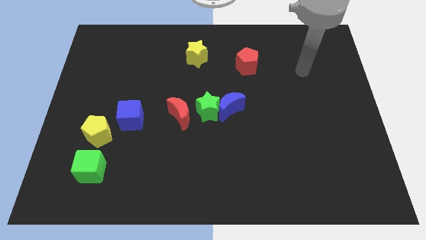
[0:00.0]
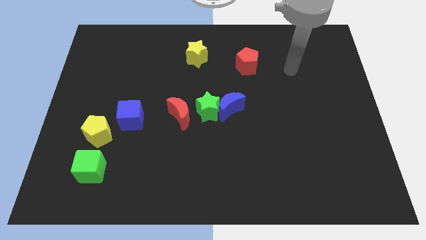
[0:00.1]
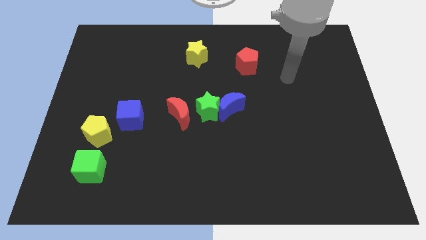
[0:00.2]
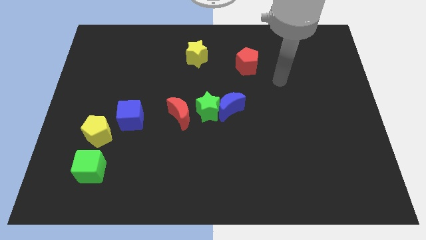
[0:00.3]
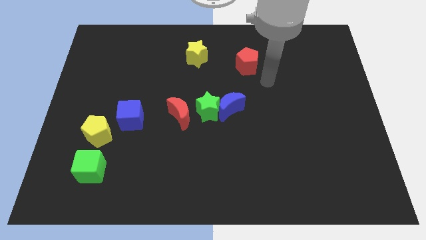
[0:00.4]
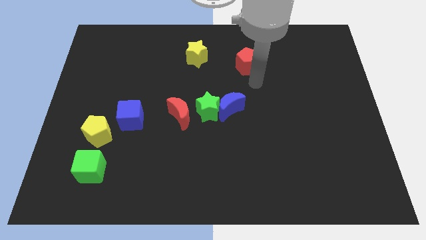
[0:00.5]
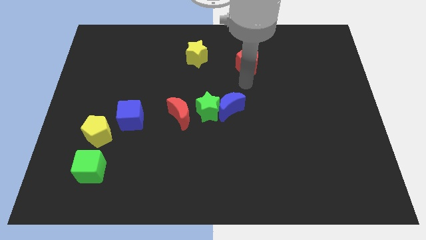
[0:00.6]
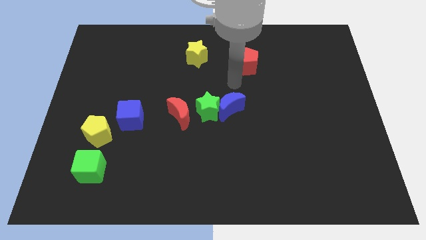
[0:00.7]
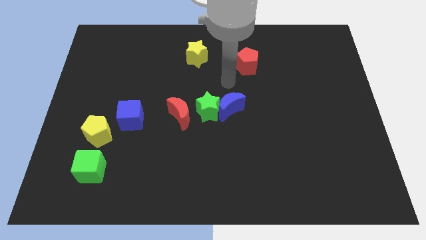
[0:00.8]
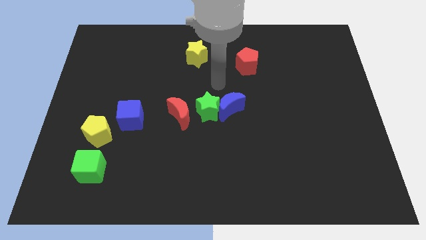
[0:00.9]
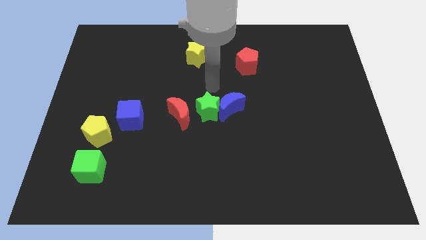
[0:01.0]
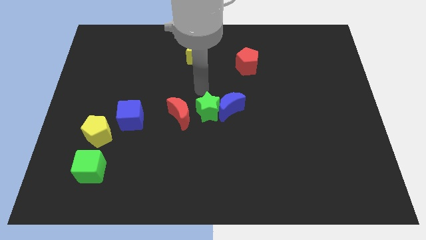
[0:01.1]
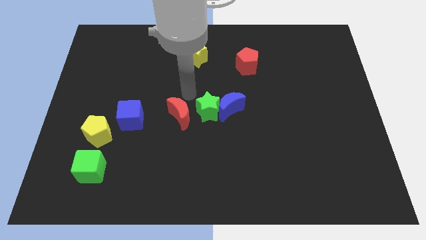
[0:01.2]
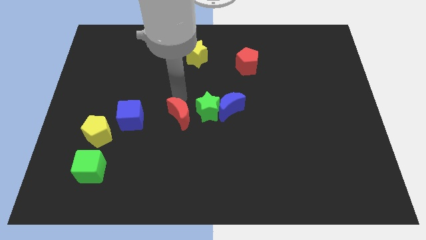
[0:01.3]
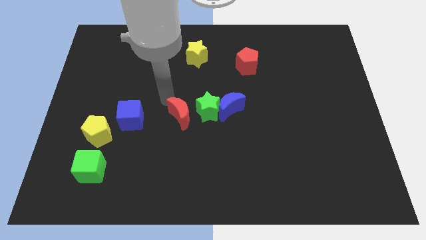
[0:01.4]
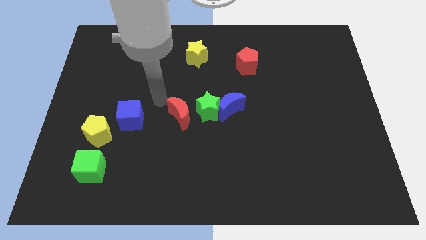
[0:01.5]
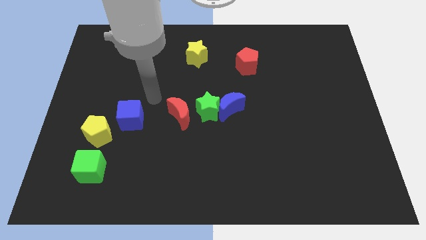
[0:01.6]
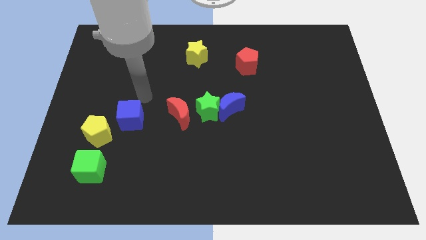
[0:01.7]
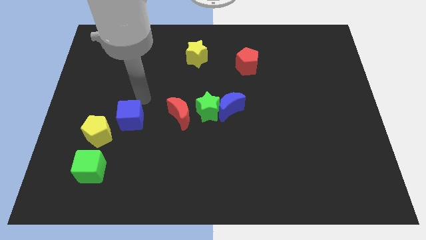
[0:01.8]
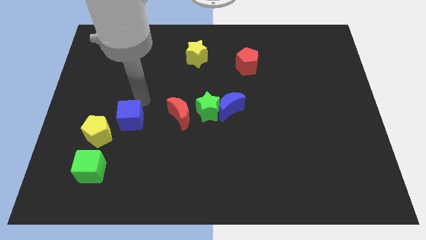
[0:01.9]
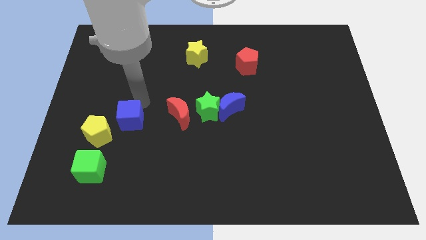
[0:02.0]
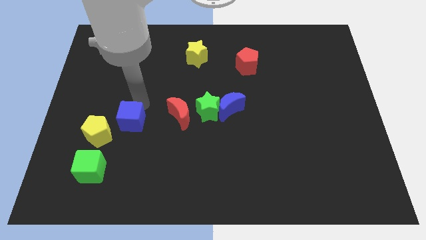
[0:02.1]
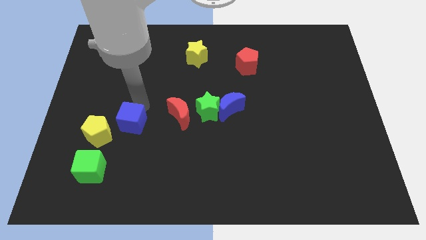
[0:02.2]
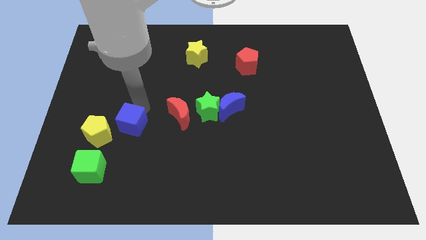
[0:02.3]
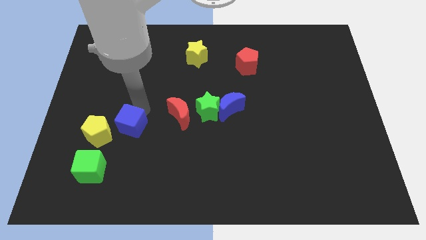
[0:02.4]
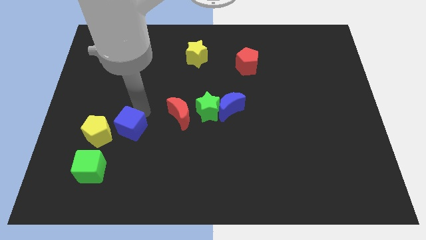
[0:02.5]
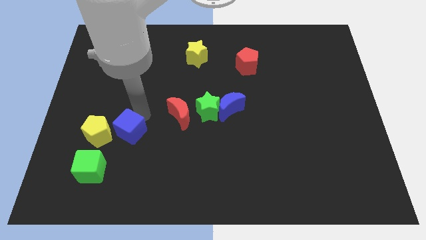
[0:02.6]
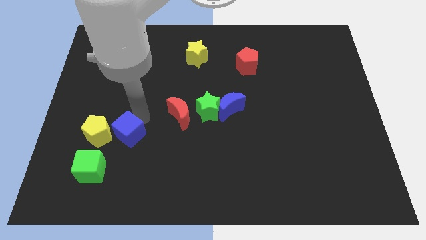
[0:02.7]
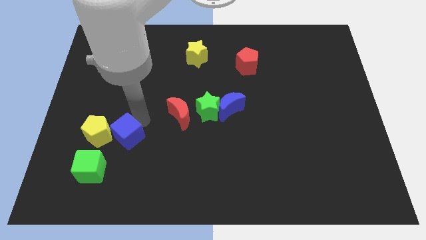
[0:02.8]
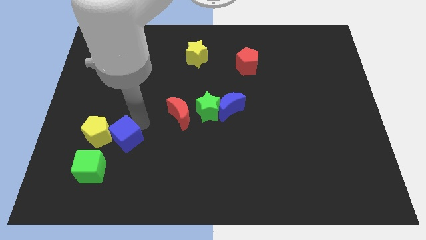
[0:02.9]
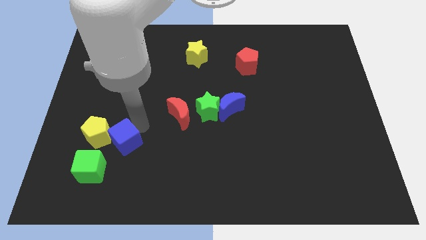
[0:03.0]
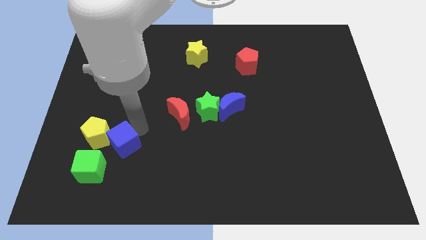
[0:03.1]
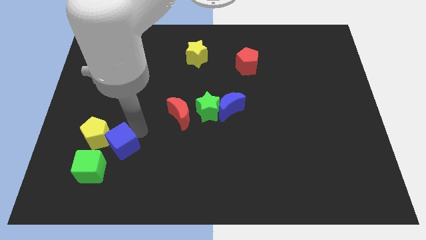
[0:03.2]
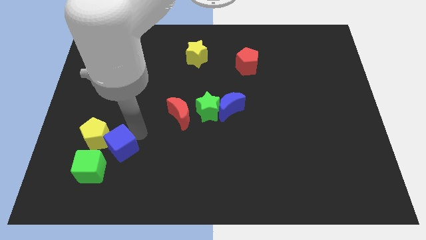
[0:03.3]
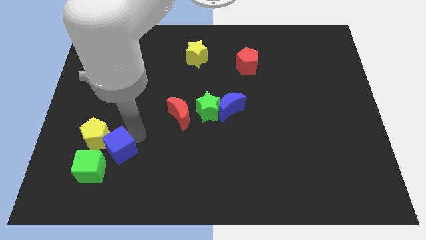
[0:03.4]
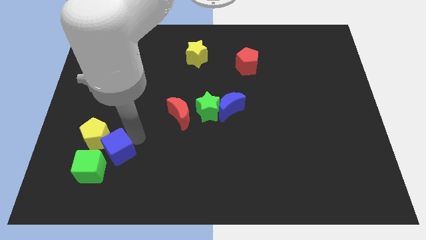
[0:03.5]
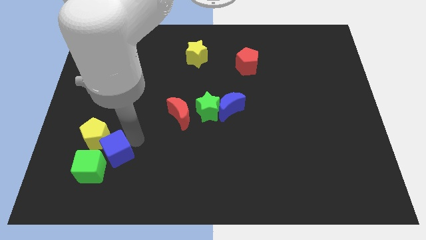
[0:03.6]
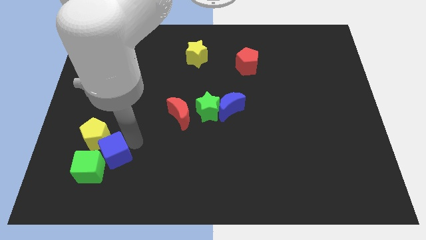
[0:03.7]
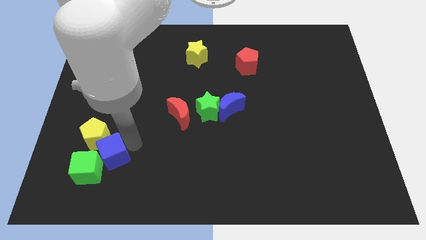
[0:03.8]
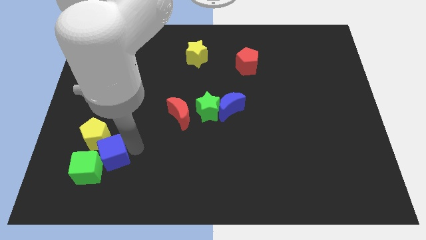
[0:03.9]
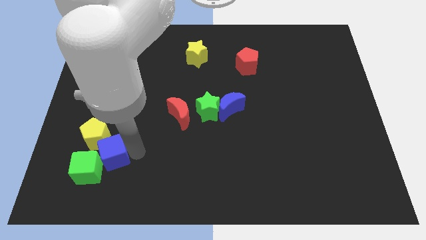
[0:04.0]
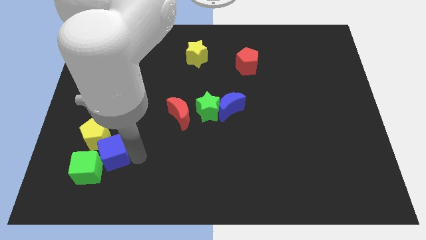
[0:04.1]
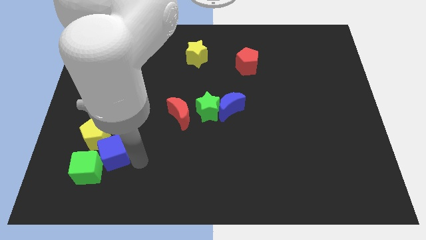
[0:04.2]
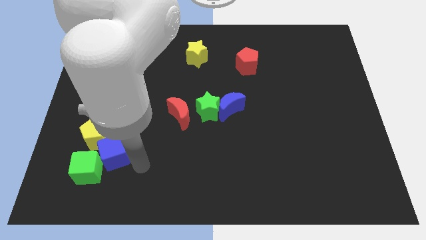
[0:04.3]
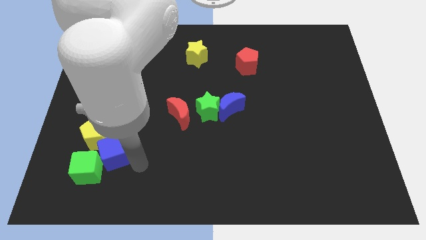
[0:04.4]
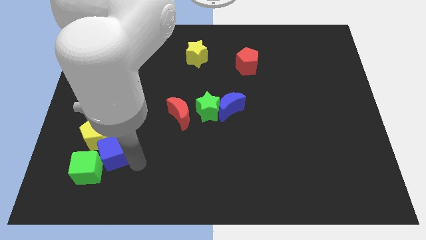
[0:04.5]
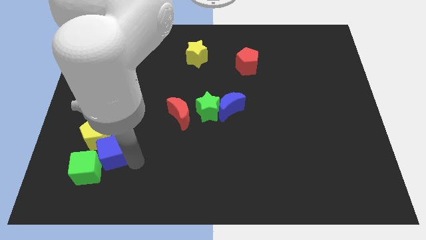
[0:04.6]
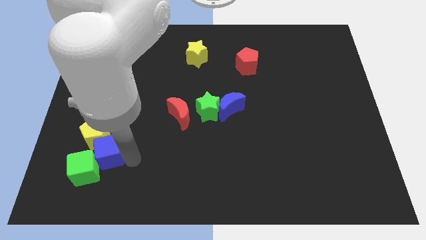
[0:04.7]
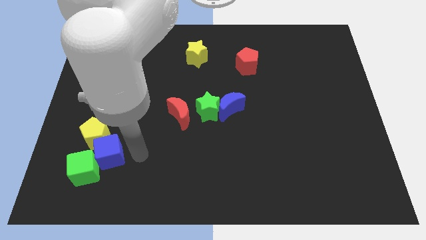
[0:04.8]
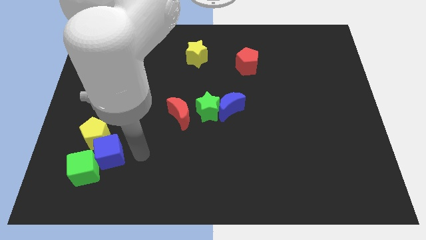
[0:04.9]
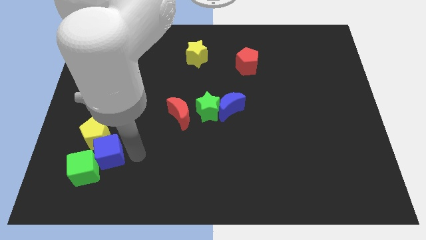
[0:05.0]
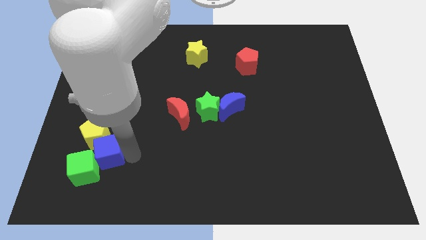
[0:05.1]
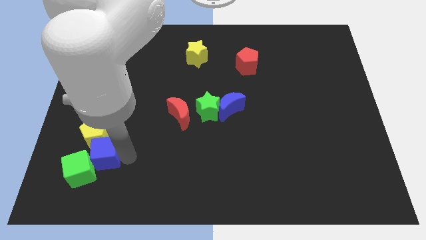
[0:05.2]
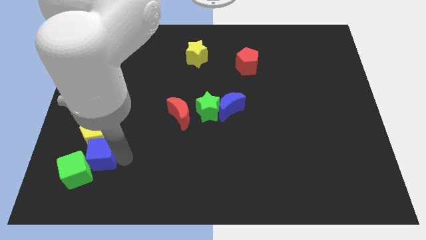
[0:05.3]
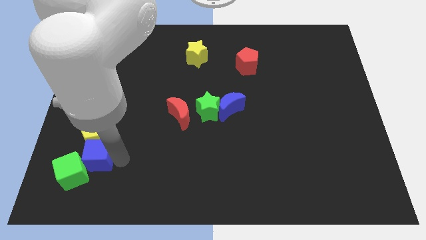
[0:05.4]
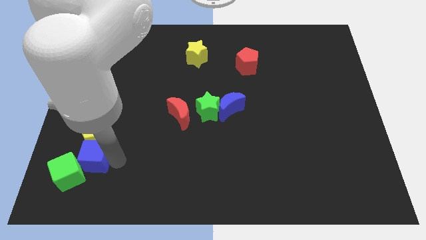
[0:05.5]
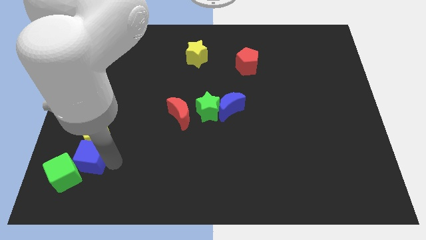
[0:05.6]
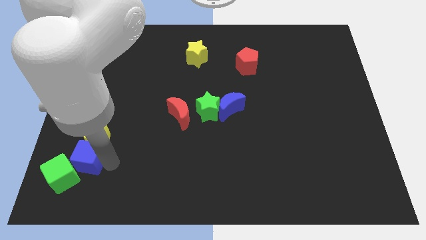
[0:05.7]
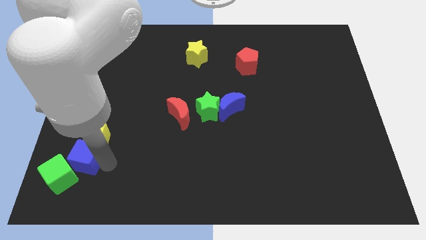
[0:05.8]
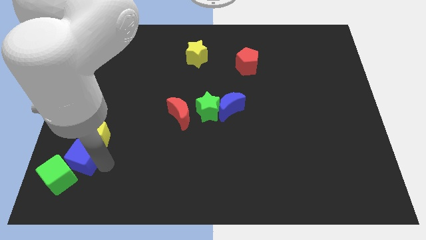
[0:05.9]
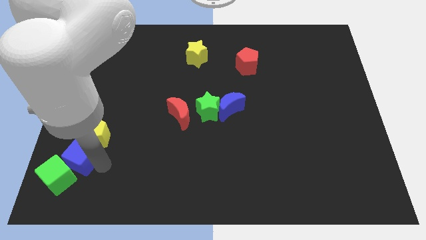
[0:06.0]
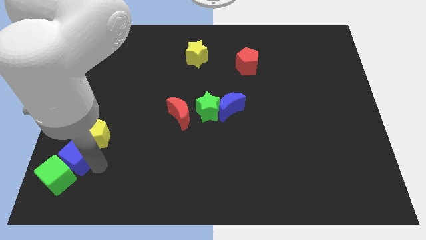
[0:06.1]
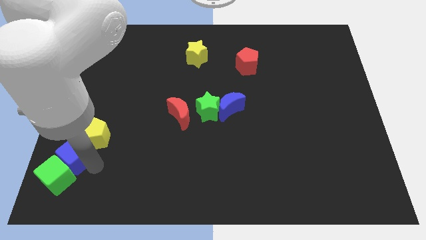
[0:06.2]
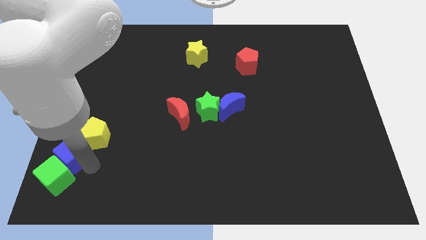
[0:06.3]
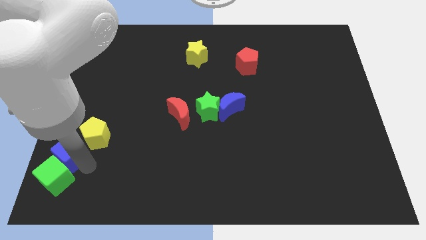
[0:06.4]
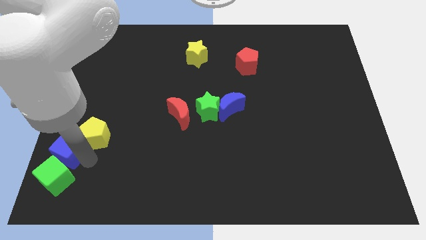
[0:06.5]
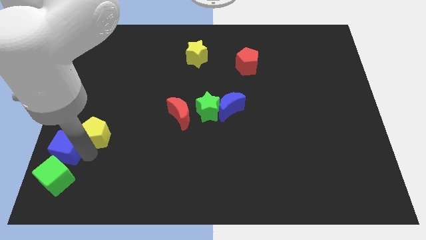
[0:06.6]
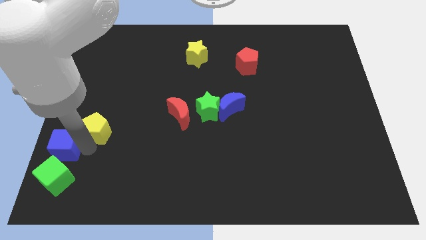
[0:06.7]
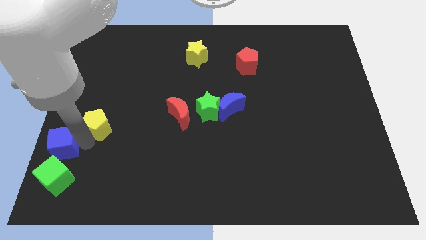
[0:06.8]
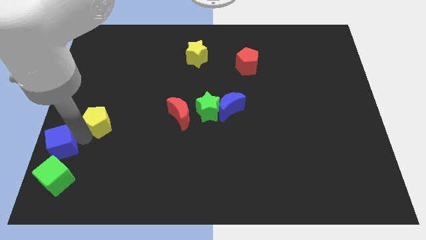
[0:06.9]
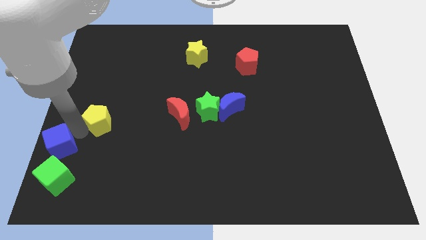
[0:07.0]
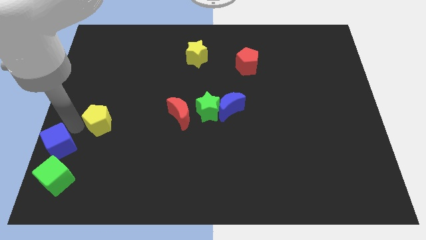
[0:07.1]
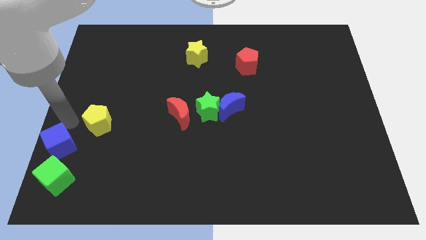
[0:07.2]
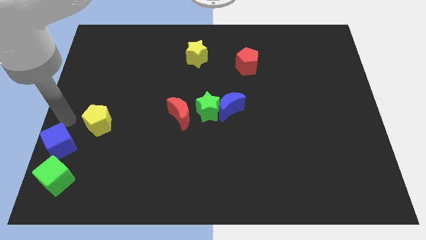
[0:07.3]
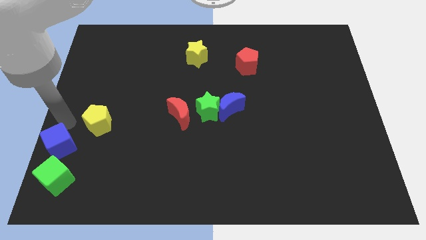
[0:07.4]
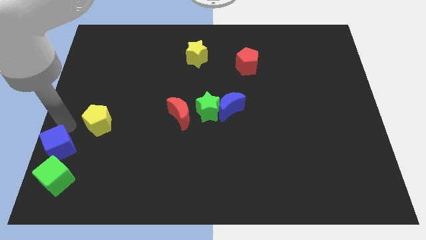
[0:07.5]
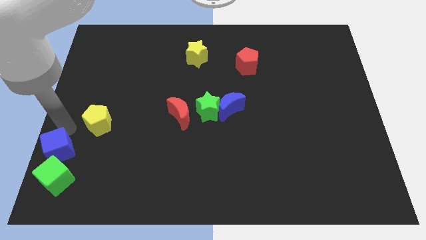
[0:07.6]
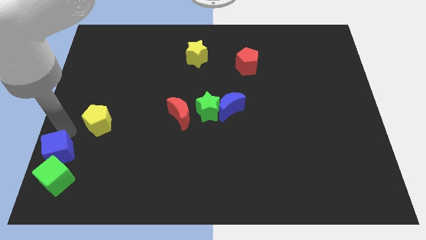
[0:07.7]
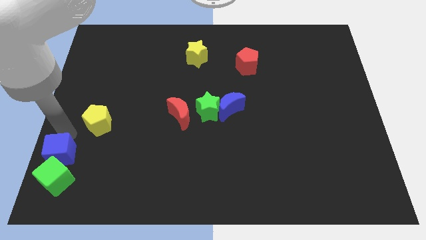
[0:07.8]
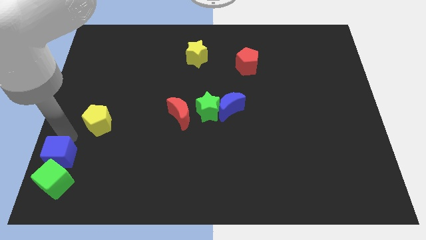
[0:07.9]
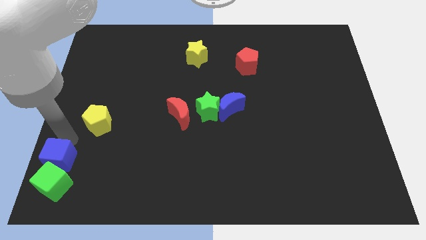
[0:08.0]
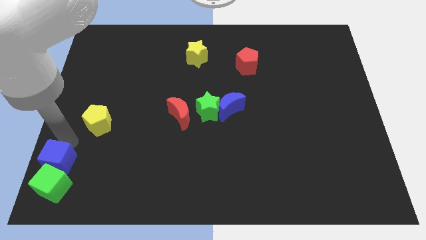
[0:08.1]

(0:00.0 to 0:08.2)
move the blue cube to the bottom left of the board
